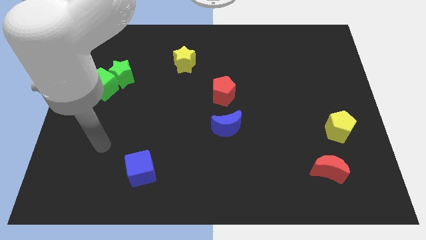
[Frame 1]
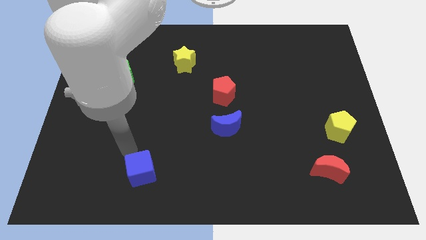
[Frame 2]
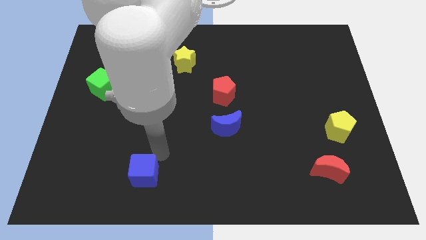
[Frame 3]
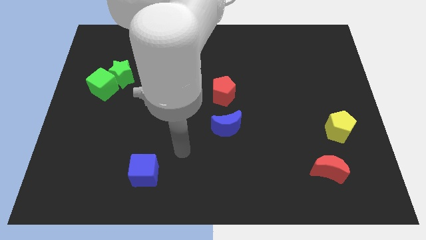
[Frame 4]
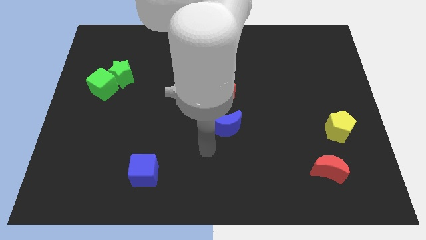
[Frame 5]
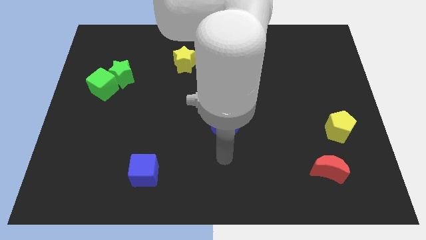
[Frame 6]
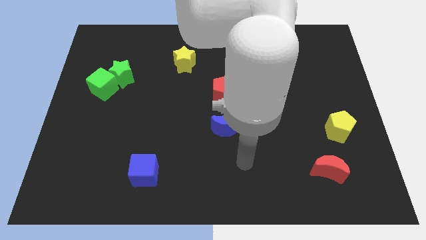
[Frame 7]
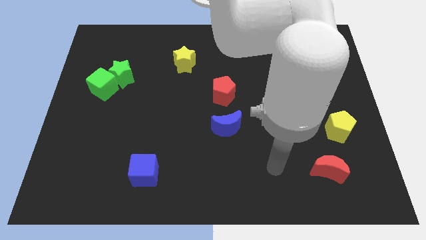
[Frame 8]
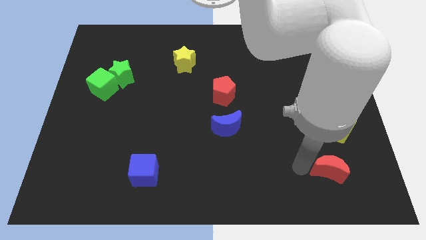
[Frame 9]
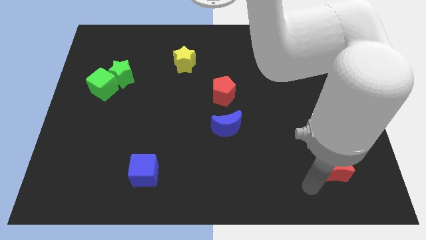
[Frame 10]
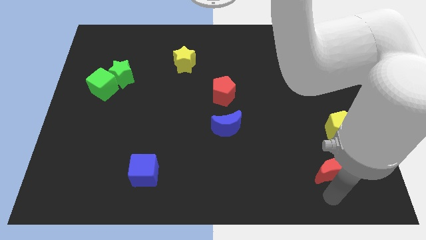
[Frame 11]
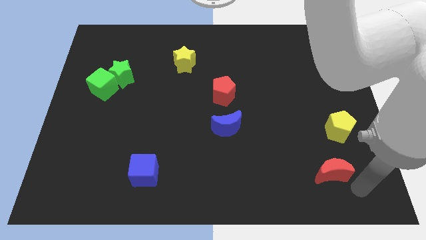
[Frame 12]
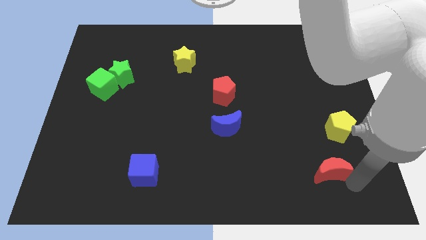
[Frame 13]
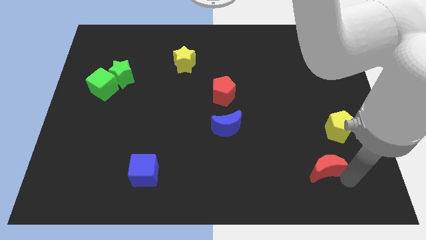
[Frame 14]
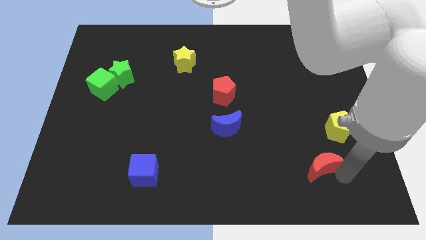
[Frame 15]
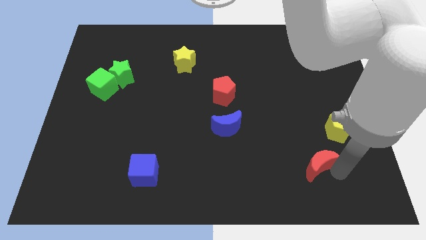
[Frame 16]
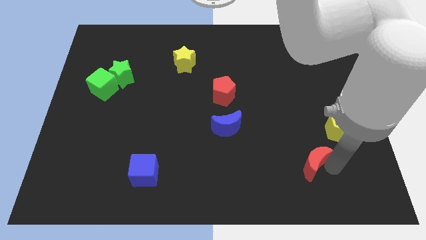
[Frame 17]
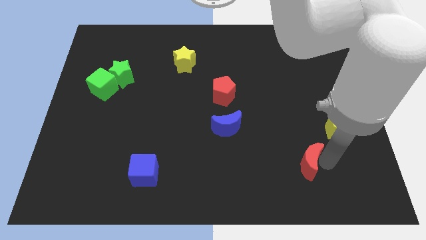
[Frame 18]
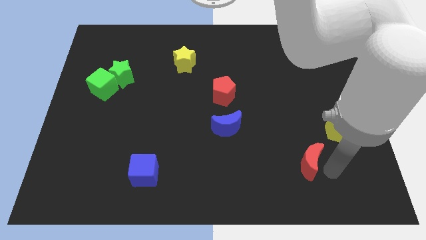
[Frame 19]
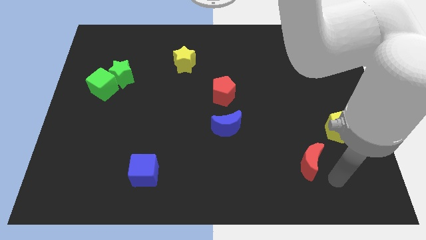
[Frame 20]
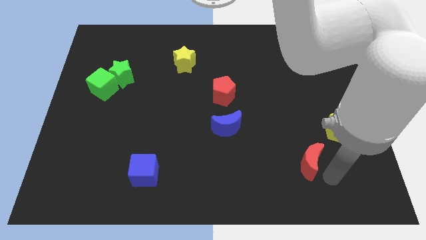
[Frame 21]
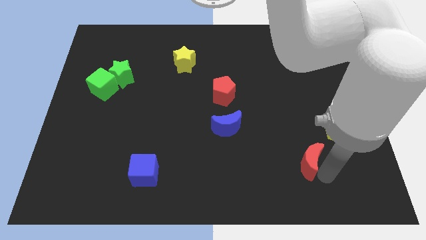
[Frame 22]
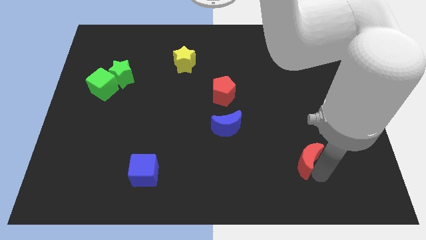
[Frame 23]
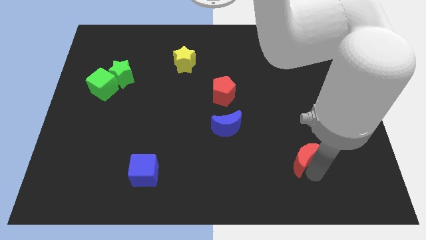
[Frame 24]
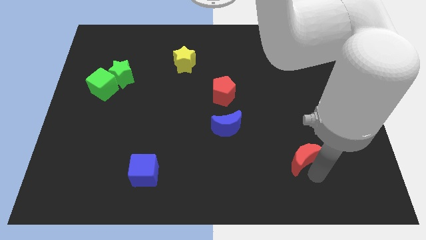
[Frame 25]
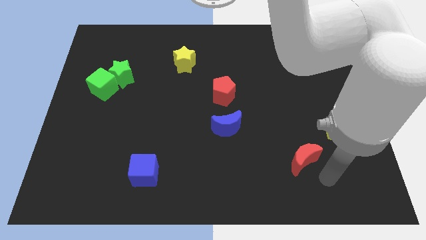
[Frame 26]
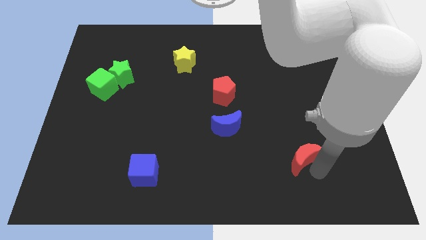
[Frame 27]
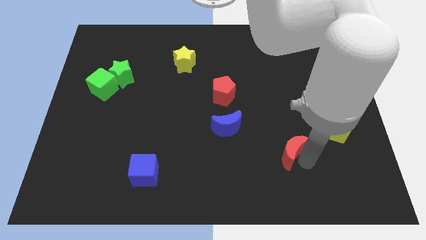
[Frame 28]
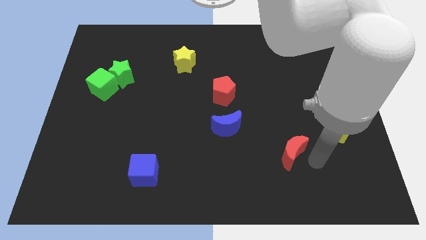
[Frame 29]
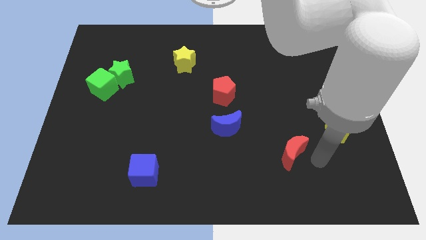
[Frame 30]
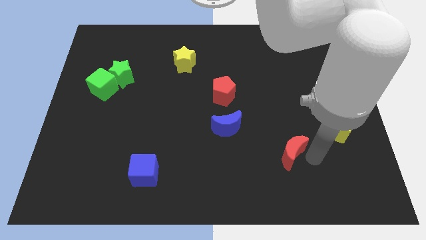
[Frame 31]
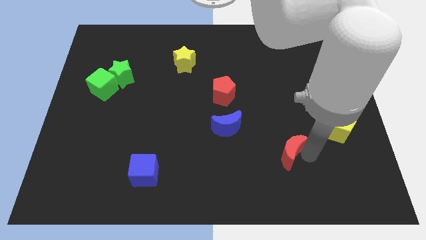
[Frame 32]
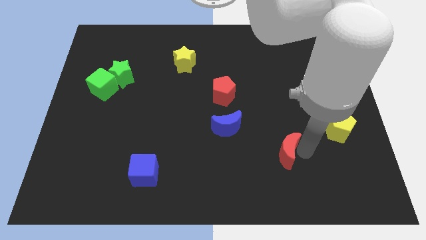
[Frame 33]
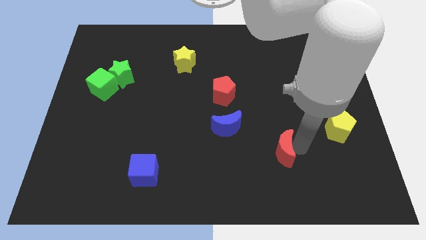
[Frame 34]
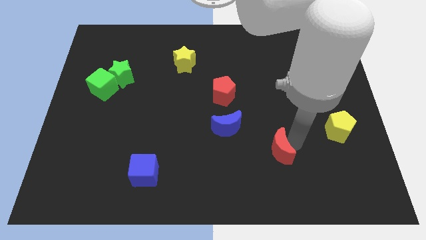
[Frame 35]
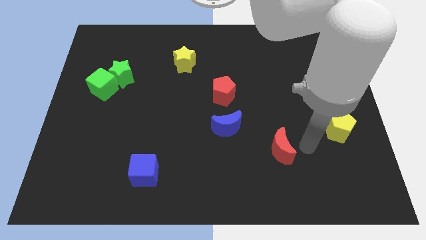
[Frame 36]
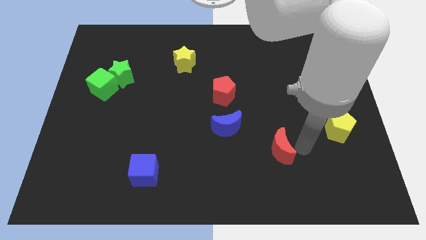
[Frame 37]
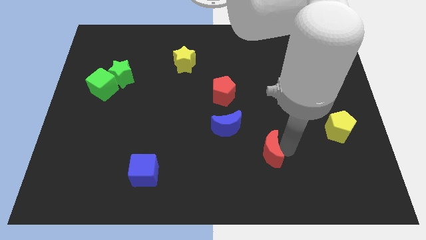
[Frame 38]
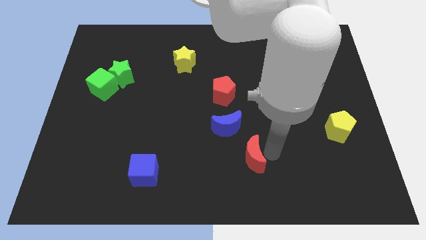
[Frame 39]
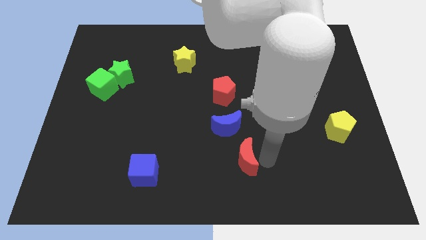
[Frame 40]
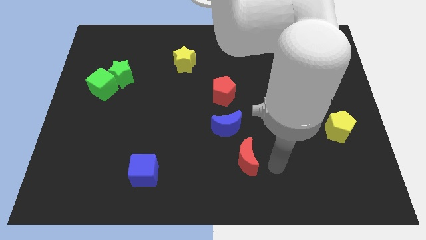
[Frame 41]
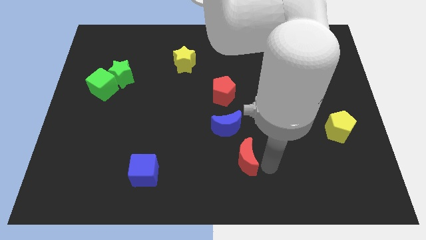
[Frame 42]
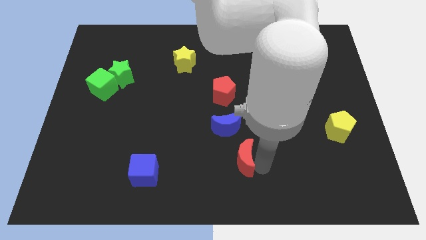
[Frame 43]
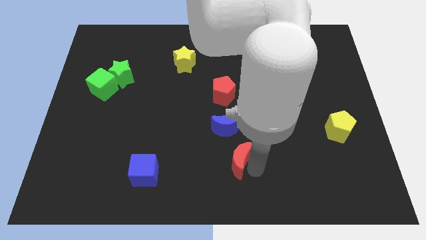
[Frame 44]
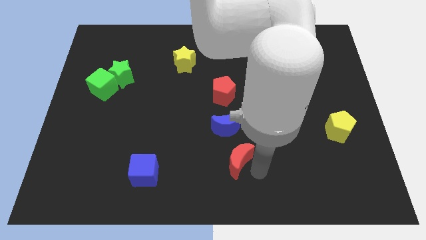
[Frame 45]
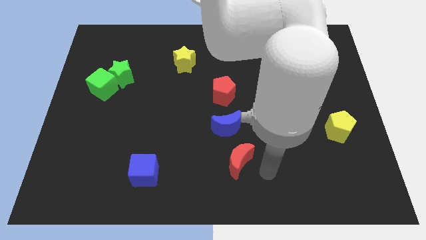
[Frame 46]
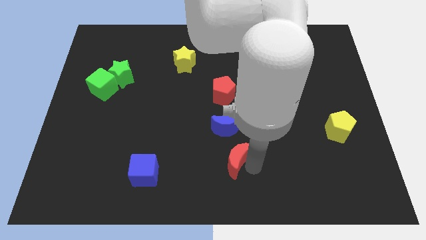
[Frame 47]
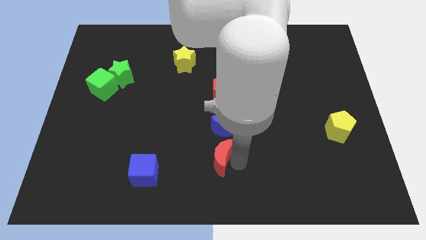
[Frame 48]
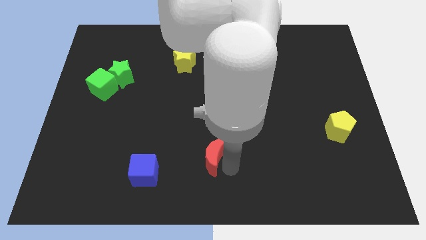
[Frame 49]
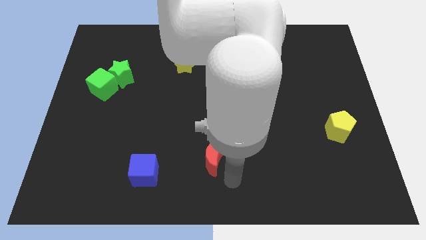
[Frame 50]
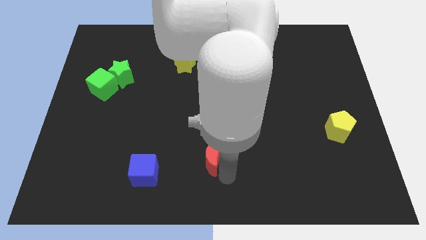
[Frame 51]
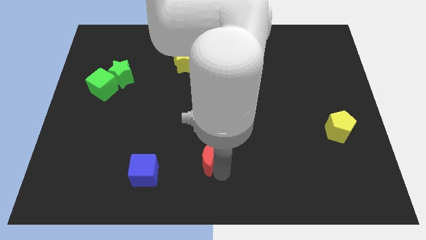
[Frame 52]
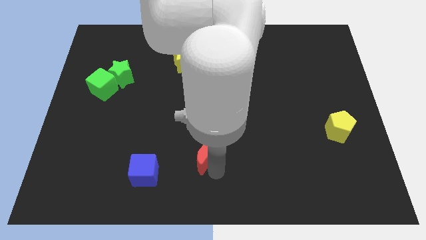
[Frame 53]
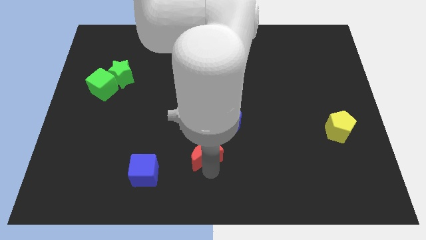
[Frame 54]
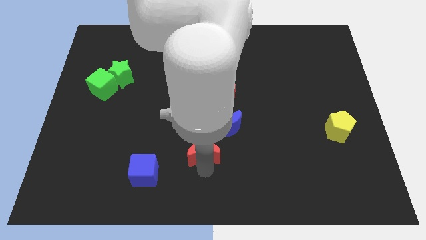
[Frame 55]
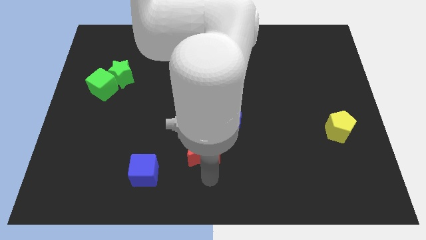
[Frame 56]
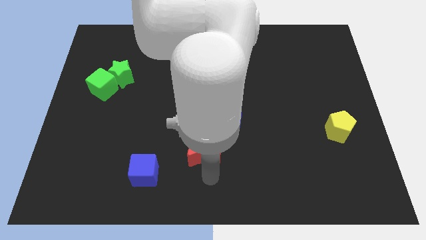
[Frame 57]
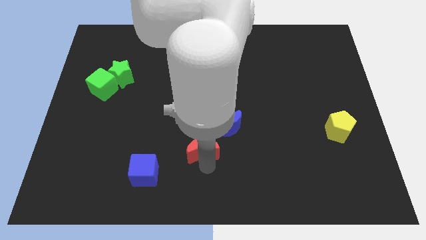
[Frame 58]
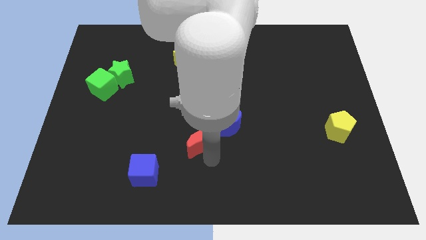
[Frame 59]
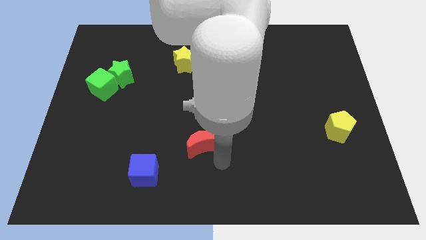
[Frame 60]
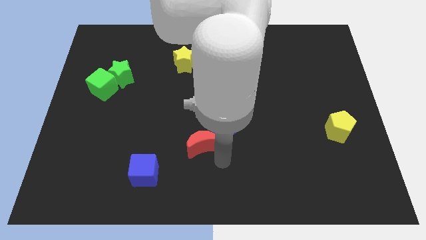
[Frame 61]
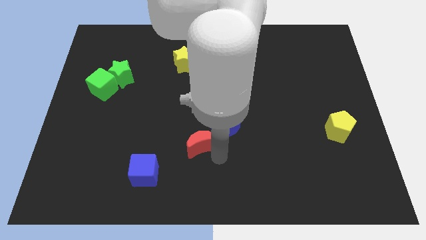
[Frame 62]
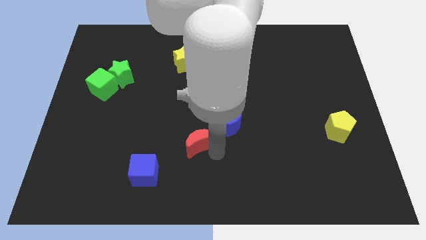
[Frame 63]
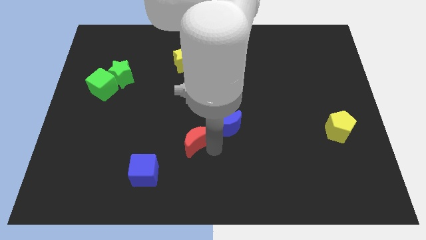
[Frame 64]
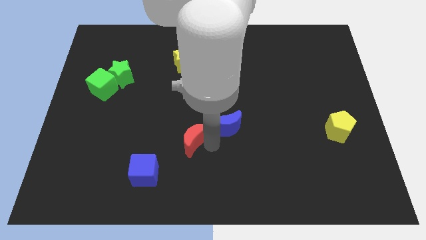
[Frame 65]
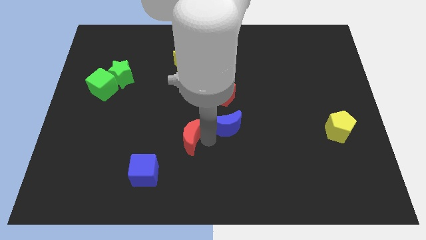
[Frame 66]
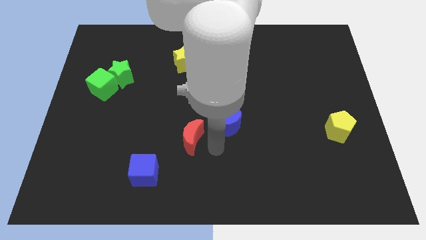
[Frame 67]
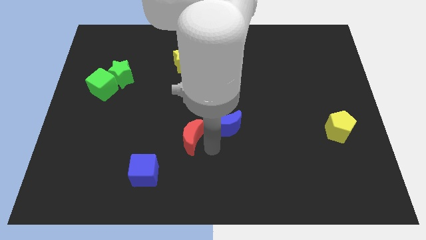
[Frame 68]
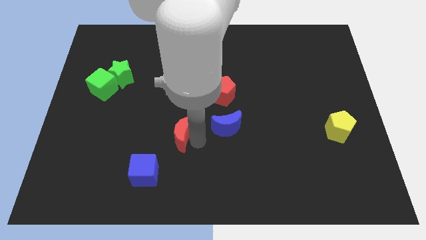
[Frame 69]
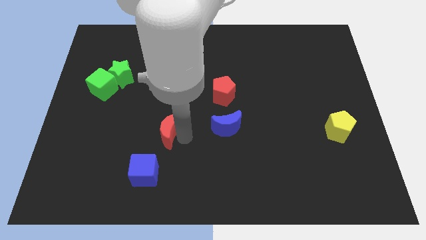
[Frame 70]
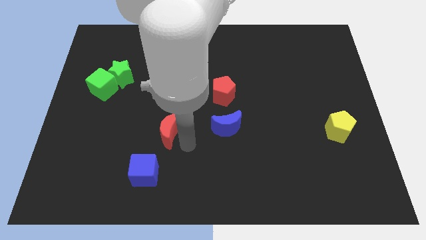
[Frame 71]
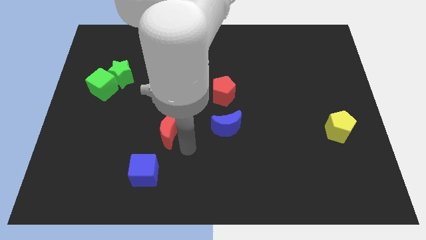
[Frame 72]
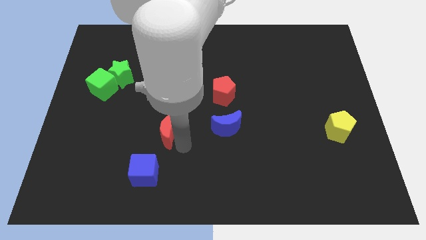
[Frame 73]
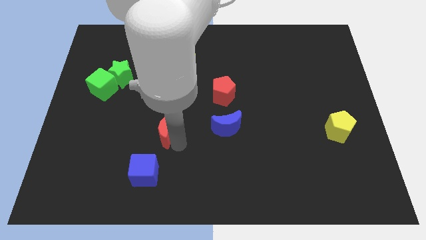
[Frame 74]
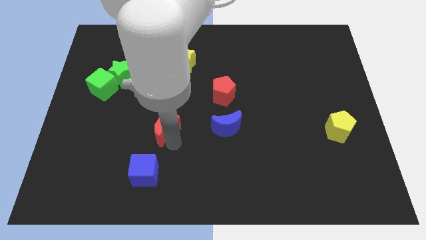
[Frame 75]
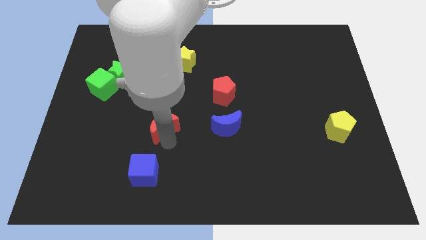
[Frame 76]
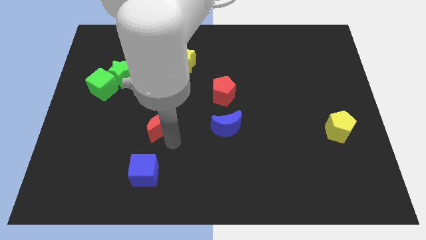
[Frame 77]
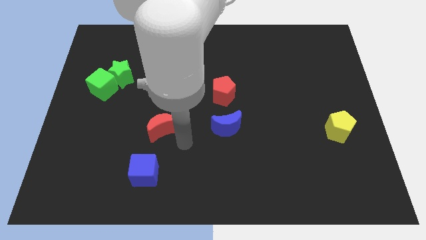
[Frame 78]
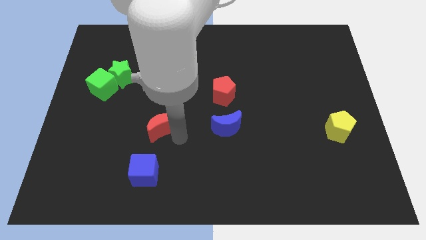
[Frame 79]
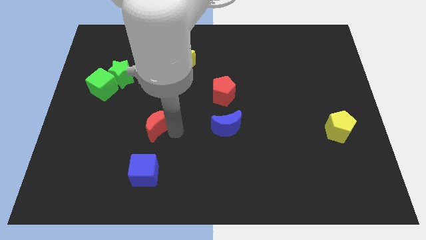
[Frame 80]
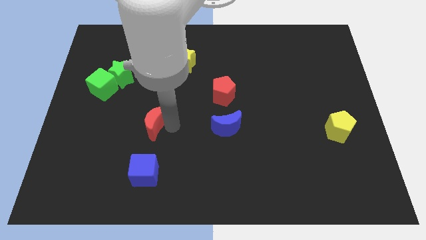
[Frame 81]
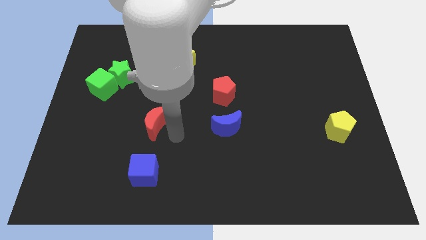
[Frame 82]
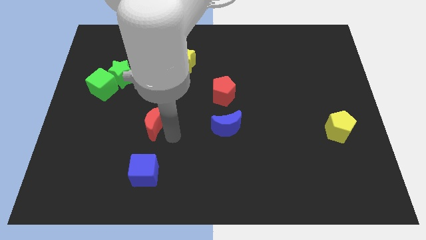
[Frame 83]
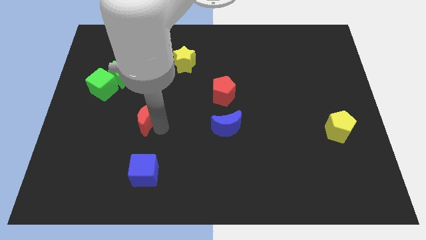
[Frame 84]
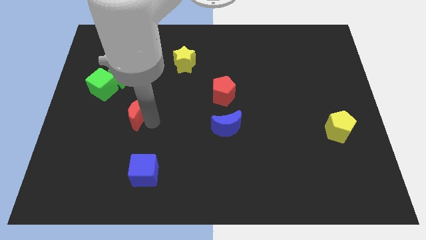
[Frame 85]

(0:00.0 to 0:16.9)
move the red moon to the bottom right of the green cube
